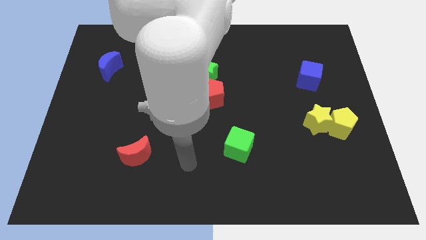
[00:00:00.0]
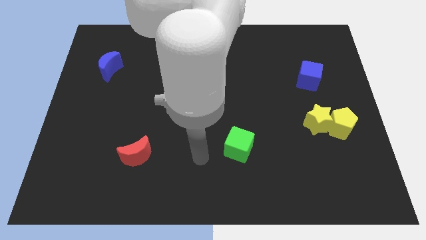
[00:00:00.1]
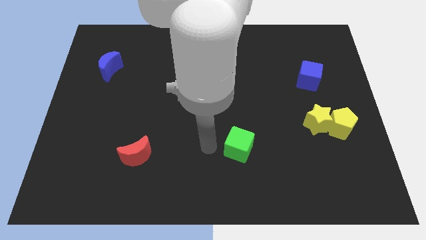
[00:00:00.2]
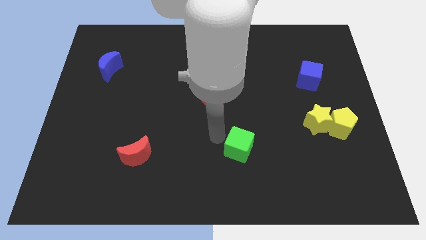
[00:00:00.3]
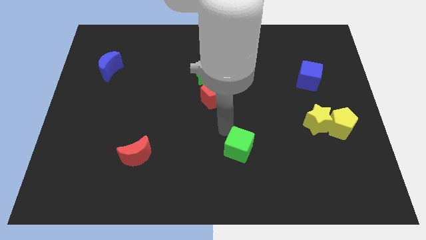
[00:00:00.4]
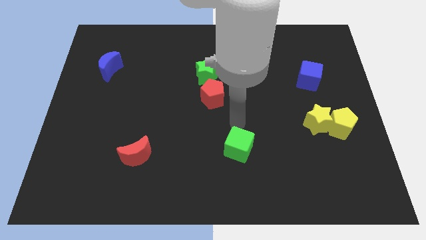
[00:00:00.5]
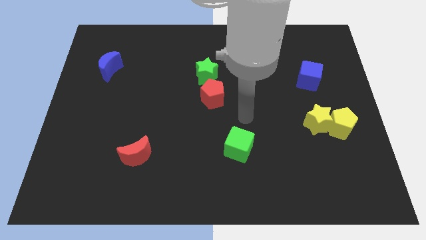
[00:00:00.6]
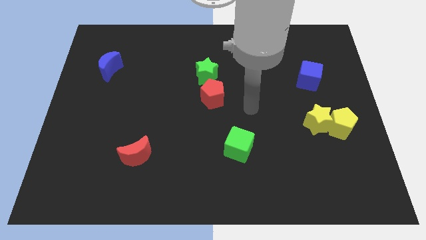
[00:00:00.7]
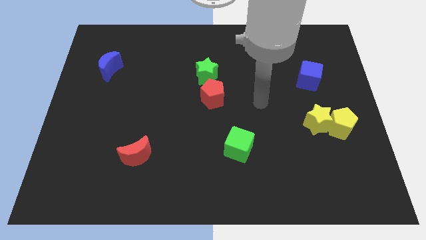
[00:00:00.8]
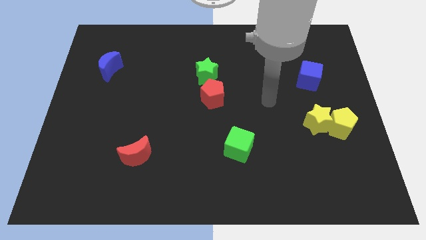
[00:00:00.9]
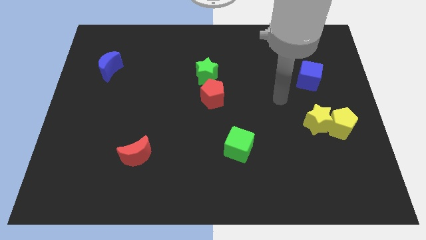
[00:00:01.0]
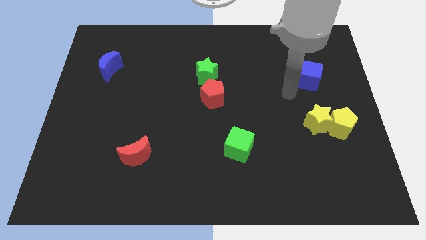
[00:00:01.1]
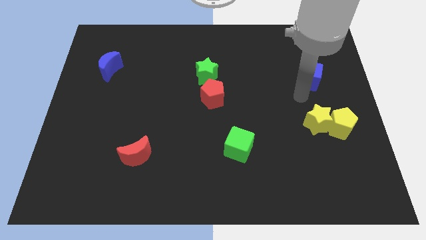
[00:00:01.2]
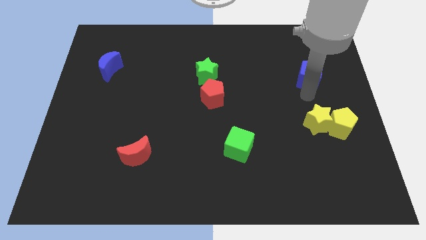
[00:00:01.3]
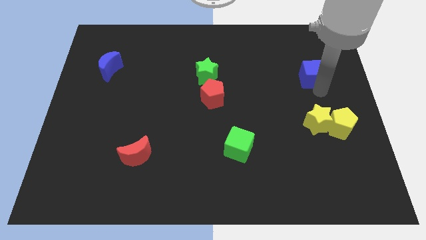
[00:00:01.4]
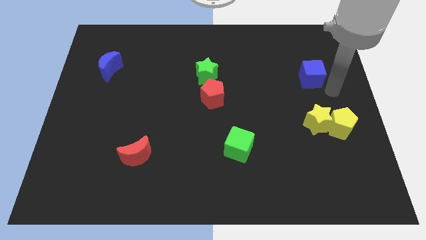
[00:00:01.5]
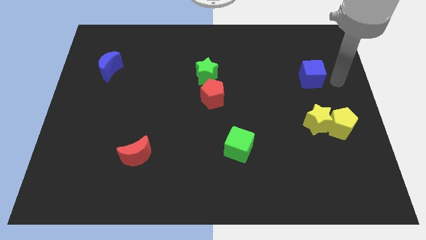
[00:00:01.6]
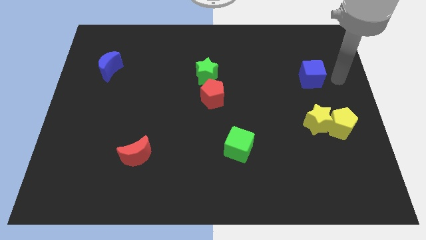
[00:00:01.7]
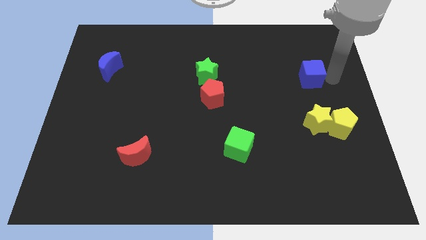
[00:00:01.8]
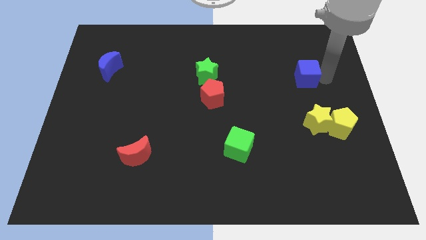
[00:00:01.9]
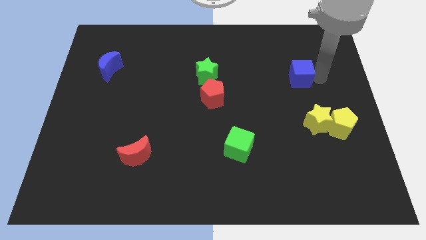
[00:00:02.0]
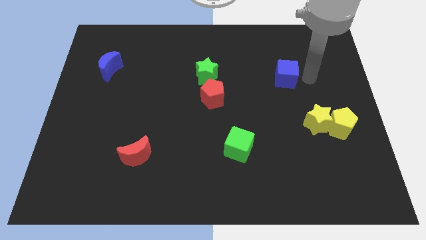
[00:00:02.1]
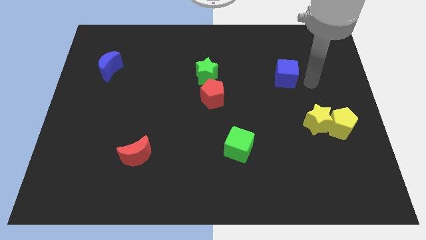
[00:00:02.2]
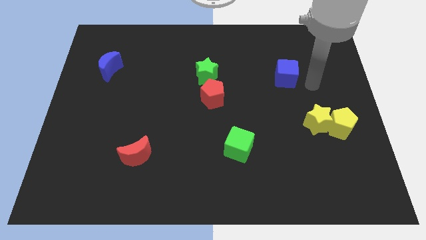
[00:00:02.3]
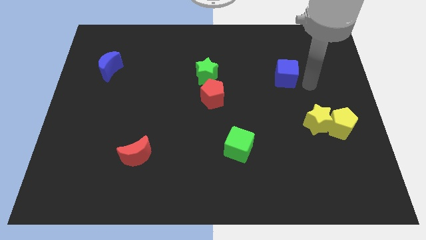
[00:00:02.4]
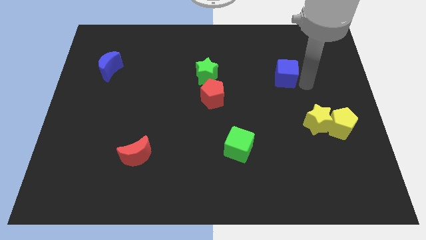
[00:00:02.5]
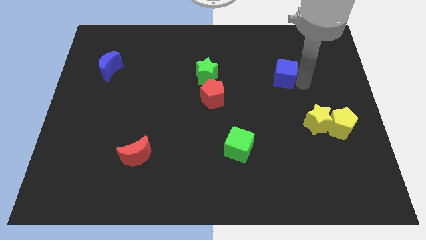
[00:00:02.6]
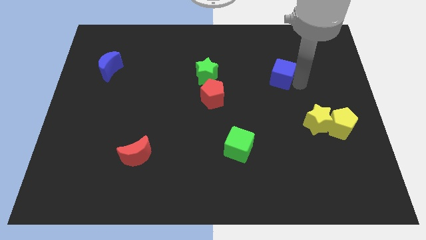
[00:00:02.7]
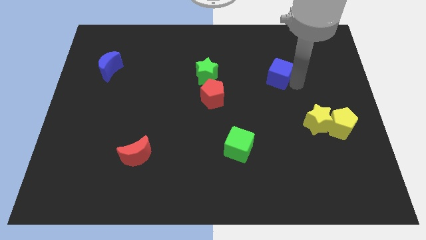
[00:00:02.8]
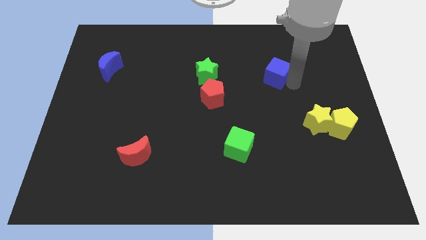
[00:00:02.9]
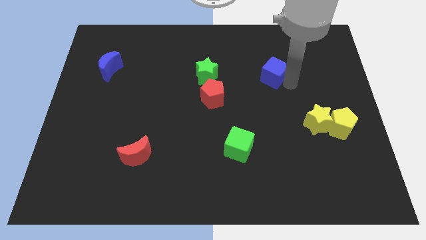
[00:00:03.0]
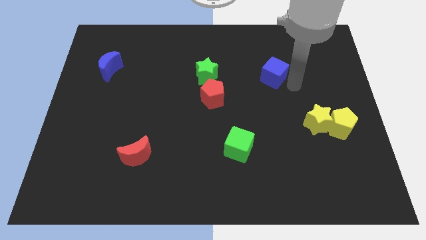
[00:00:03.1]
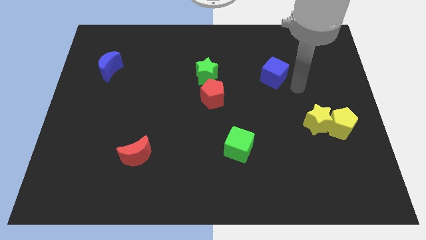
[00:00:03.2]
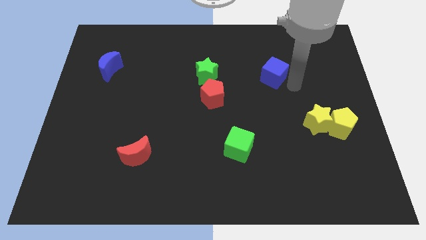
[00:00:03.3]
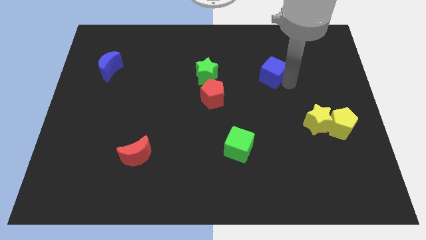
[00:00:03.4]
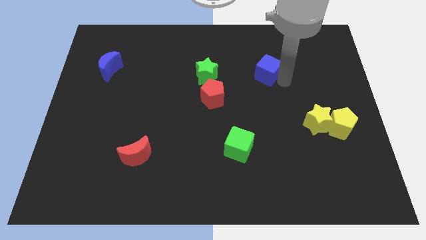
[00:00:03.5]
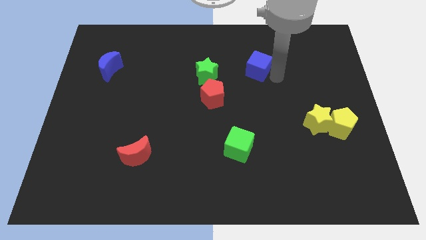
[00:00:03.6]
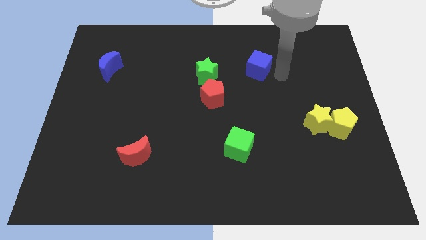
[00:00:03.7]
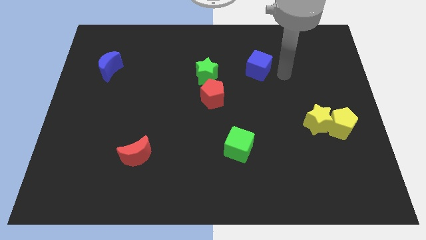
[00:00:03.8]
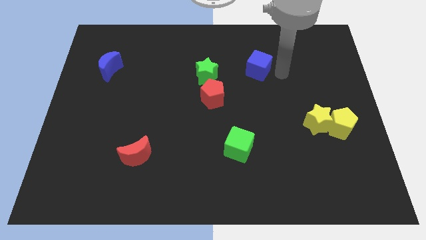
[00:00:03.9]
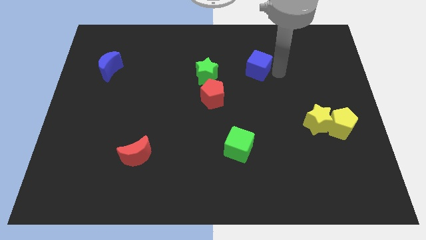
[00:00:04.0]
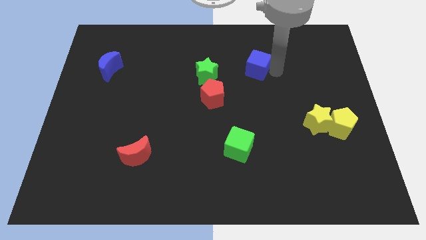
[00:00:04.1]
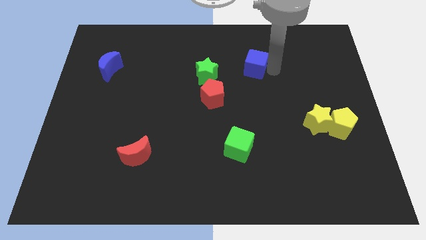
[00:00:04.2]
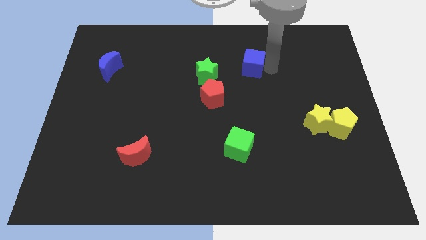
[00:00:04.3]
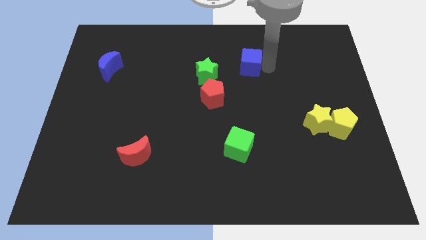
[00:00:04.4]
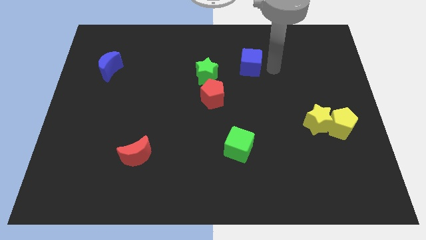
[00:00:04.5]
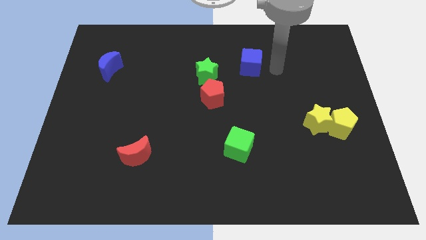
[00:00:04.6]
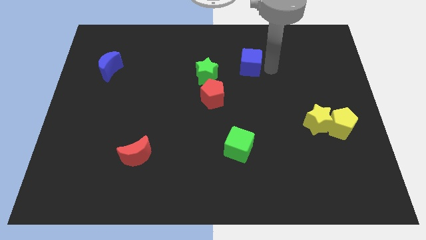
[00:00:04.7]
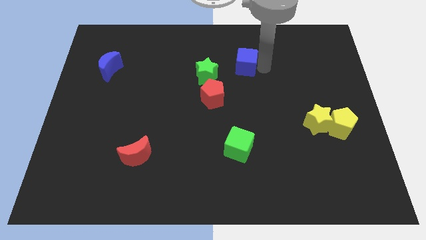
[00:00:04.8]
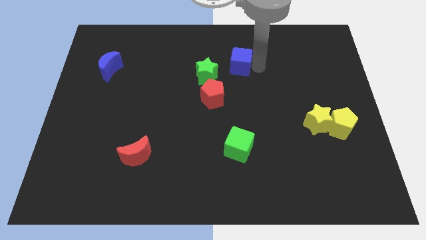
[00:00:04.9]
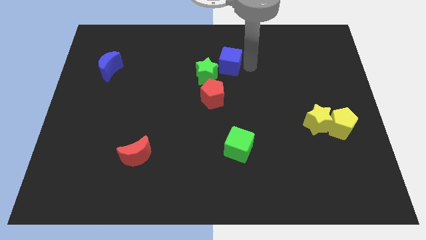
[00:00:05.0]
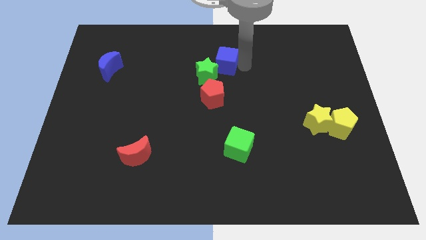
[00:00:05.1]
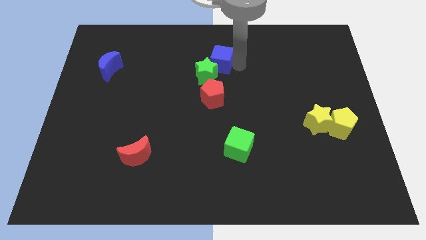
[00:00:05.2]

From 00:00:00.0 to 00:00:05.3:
push the blue cube left

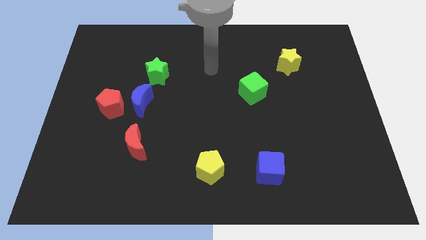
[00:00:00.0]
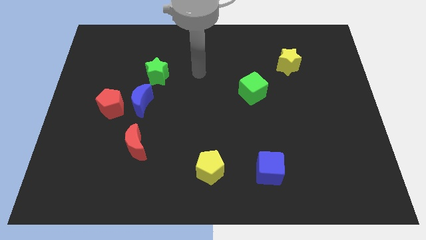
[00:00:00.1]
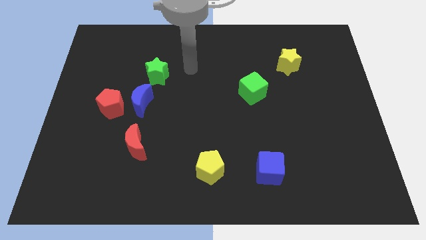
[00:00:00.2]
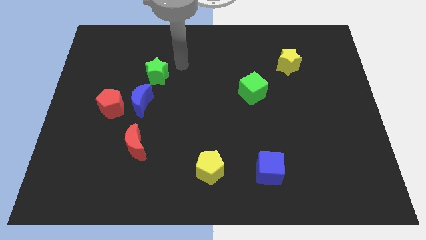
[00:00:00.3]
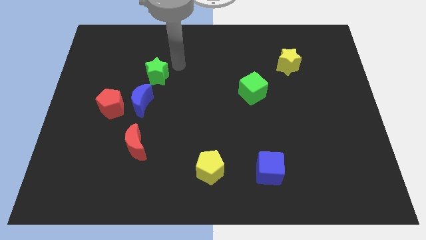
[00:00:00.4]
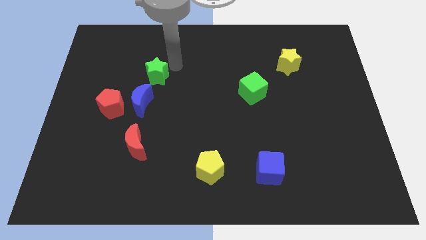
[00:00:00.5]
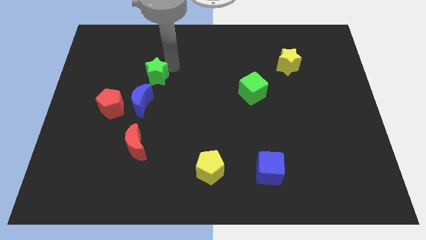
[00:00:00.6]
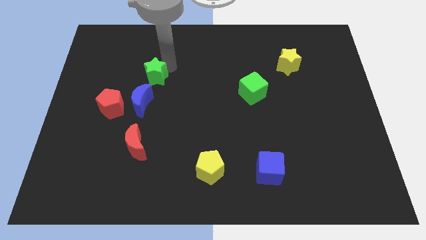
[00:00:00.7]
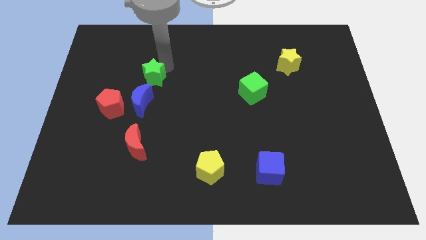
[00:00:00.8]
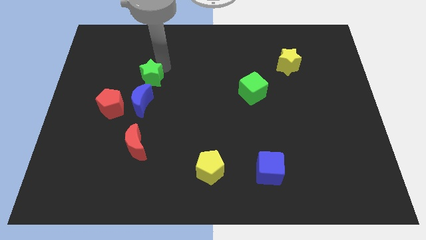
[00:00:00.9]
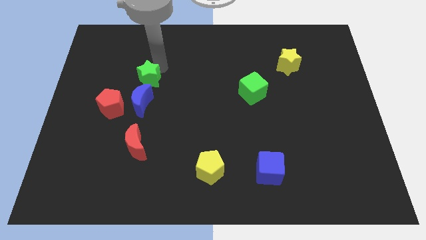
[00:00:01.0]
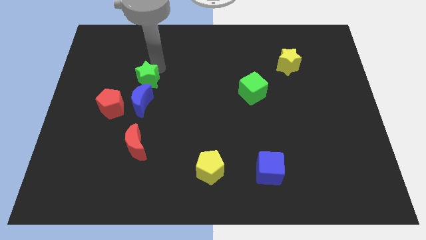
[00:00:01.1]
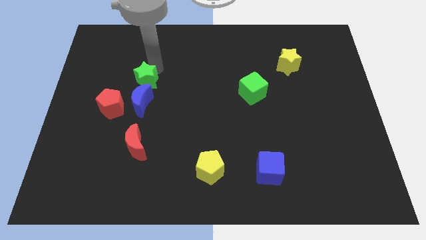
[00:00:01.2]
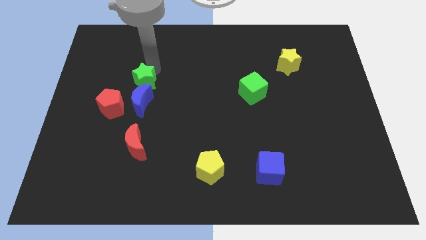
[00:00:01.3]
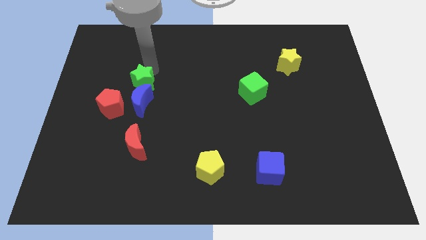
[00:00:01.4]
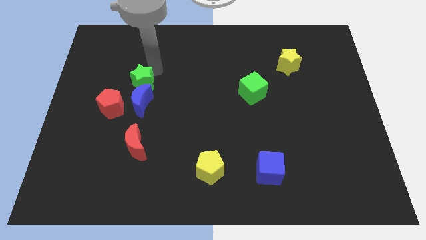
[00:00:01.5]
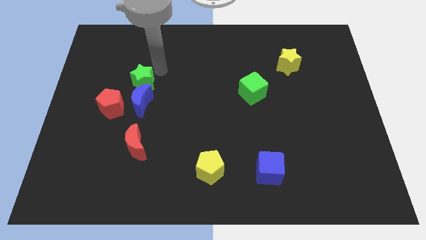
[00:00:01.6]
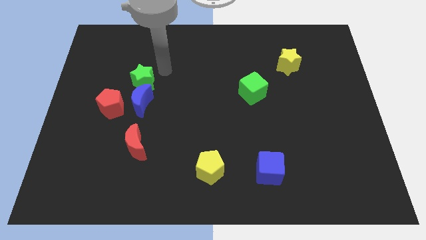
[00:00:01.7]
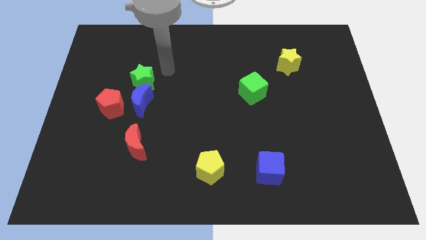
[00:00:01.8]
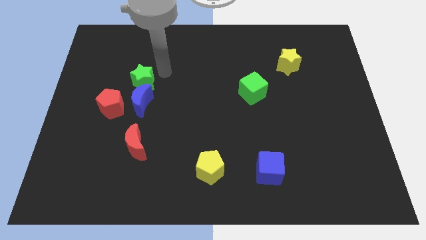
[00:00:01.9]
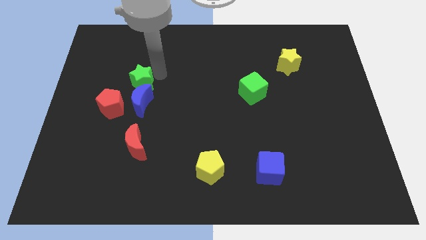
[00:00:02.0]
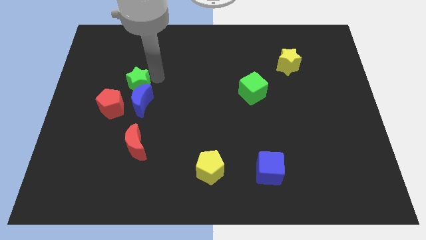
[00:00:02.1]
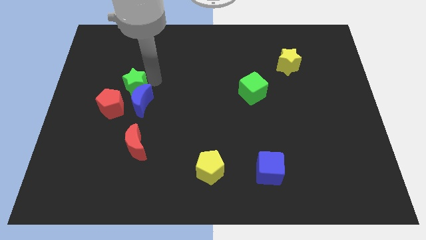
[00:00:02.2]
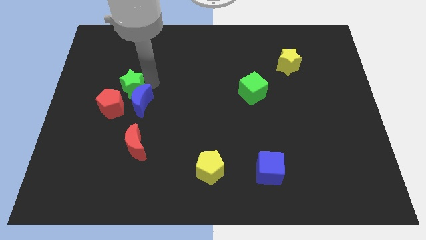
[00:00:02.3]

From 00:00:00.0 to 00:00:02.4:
slightly push the green star down and to the left diagonally

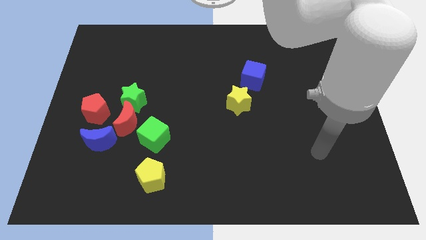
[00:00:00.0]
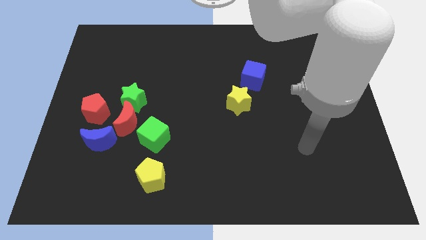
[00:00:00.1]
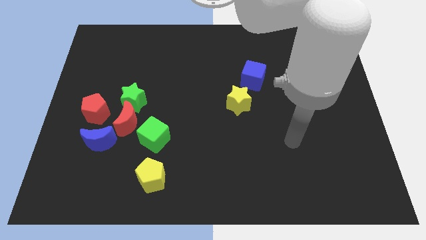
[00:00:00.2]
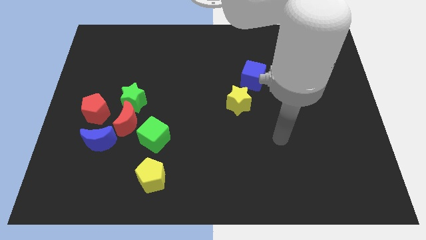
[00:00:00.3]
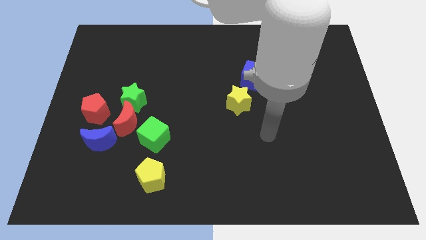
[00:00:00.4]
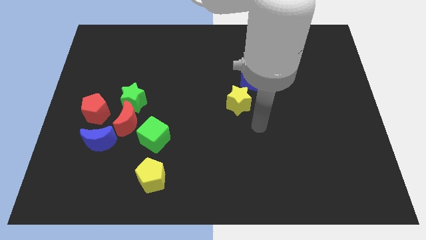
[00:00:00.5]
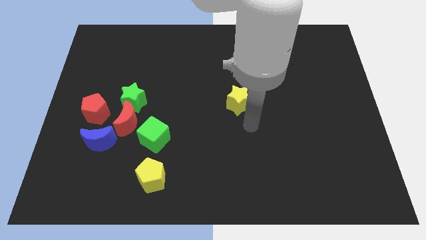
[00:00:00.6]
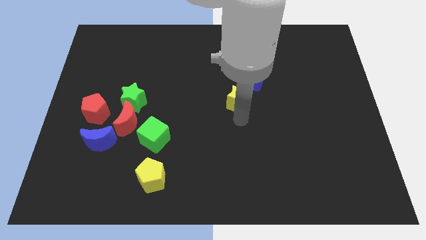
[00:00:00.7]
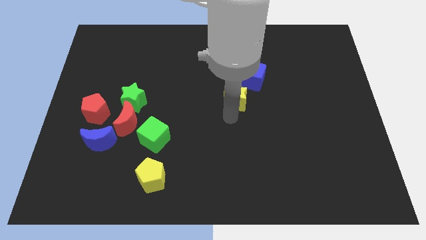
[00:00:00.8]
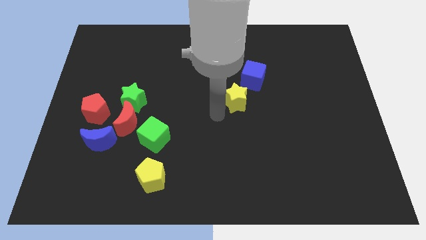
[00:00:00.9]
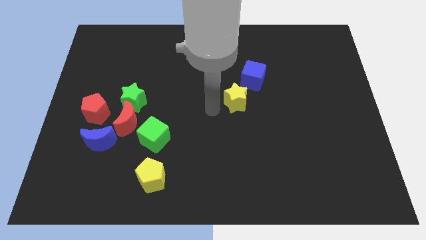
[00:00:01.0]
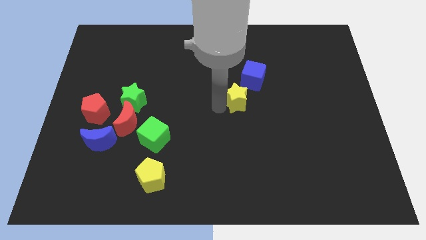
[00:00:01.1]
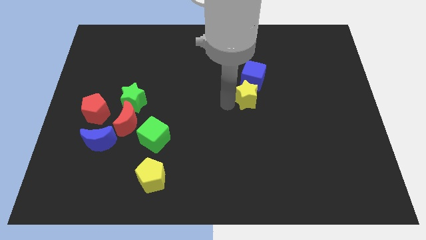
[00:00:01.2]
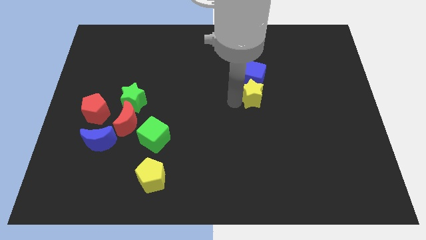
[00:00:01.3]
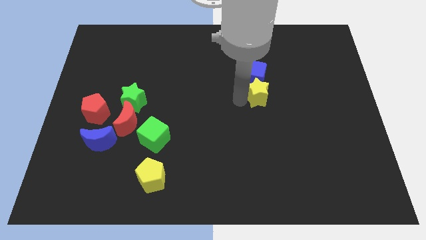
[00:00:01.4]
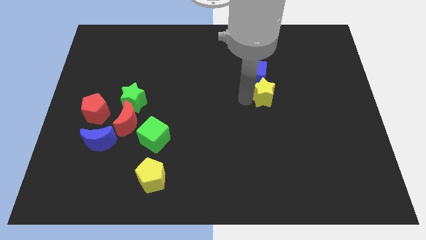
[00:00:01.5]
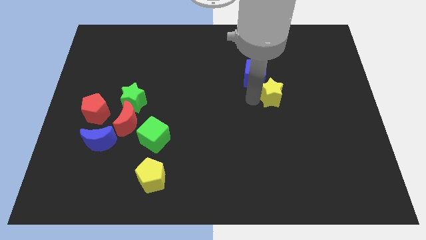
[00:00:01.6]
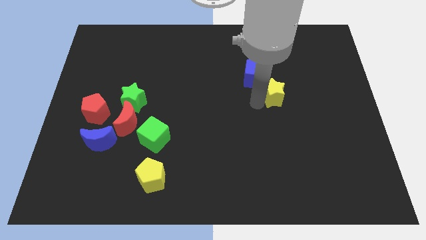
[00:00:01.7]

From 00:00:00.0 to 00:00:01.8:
slightly push the yellow star upwards and right diagonally
